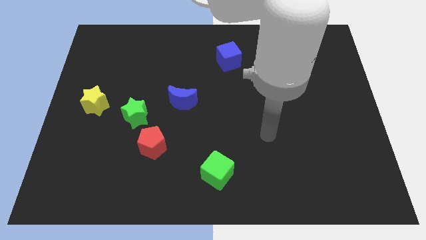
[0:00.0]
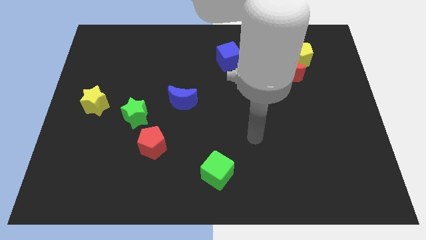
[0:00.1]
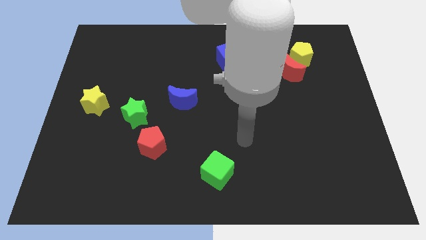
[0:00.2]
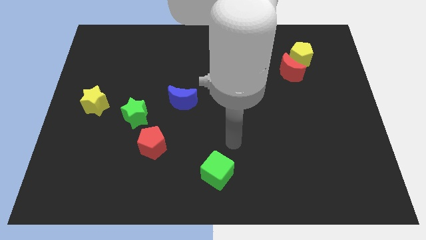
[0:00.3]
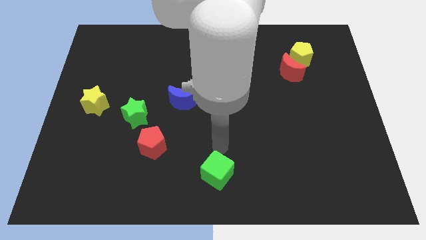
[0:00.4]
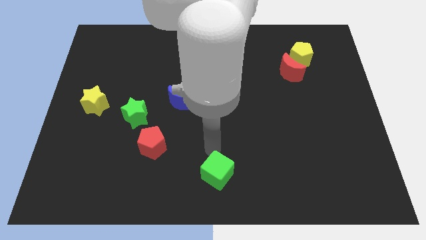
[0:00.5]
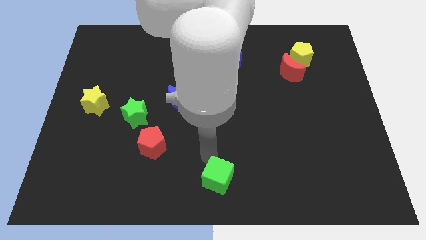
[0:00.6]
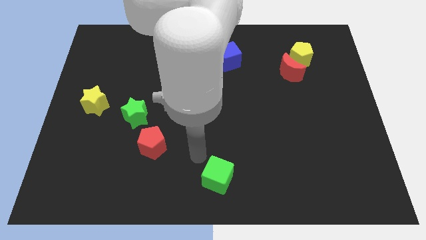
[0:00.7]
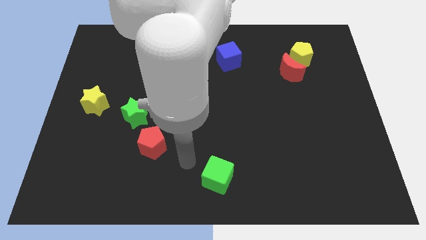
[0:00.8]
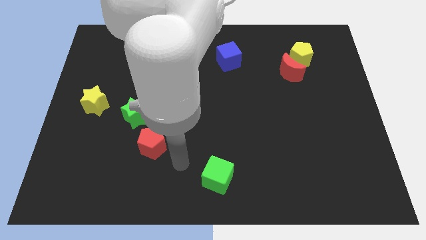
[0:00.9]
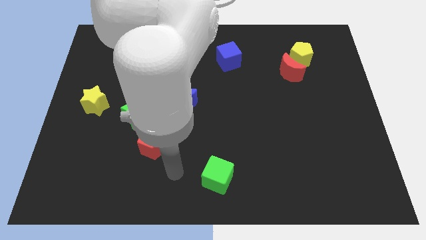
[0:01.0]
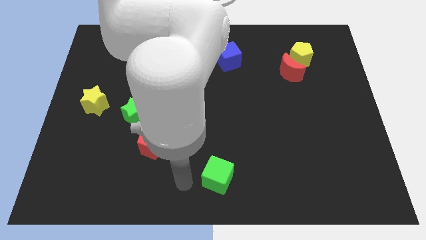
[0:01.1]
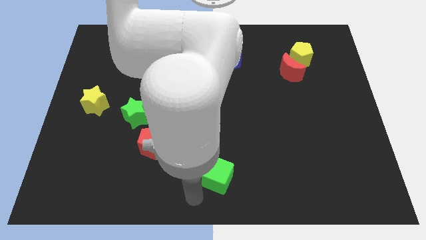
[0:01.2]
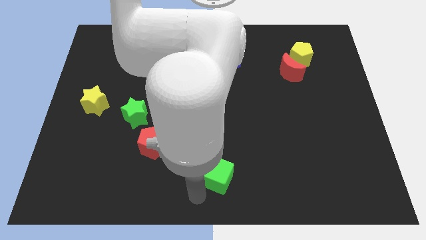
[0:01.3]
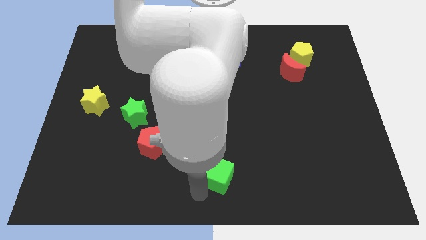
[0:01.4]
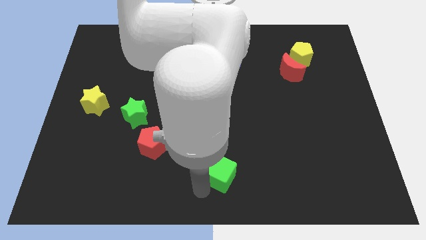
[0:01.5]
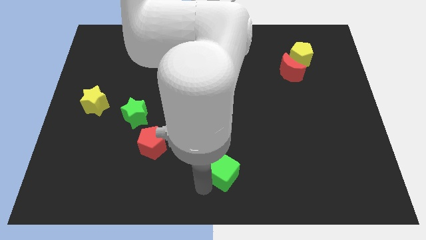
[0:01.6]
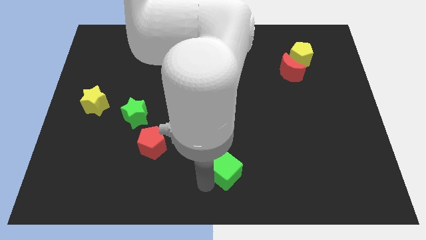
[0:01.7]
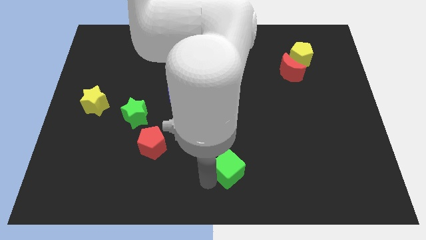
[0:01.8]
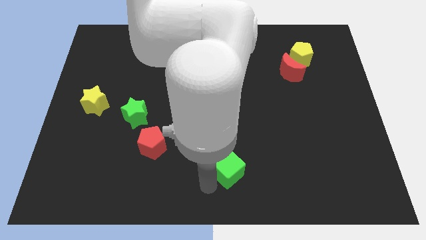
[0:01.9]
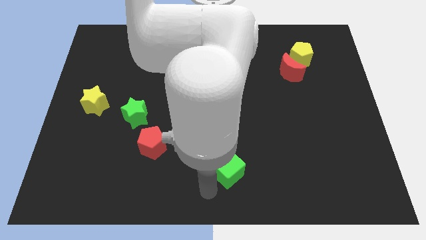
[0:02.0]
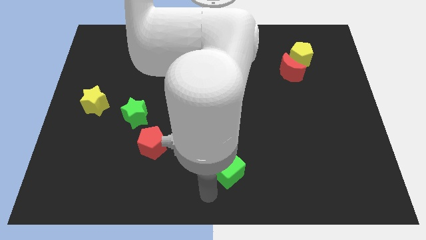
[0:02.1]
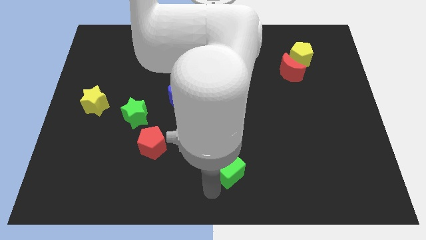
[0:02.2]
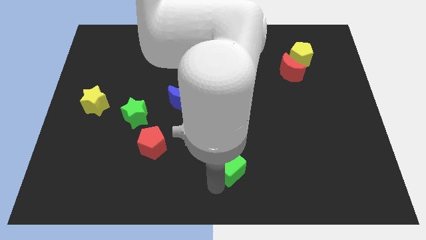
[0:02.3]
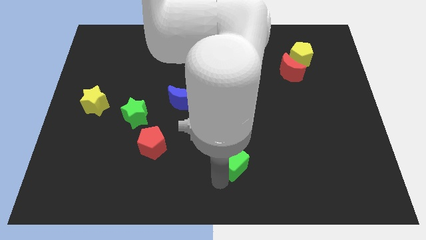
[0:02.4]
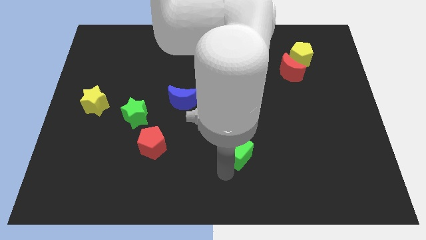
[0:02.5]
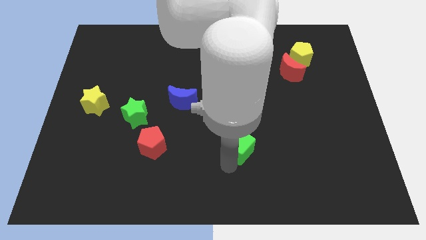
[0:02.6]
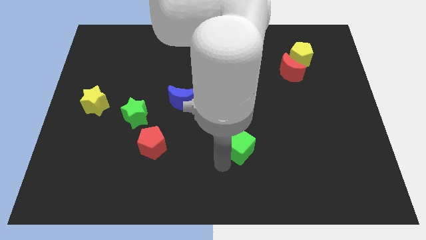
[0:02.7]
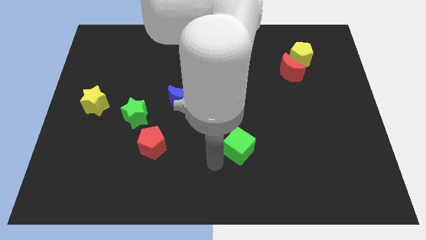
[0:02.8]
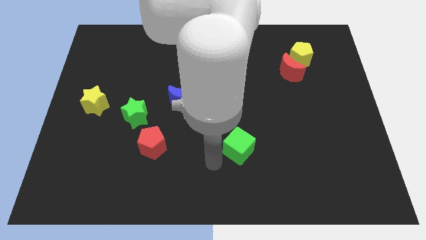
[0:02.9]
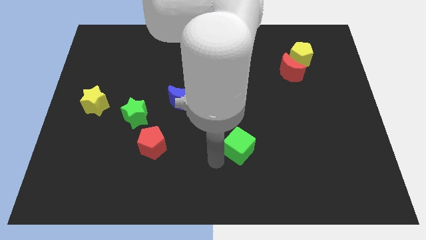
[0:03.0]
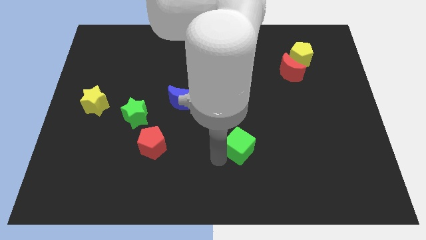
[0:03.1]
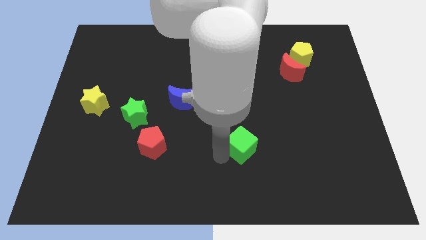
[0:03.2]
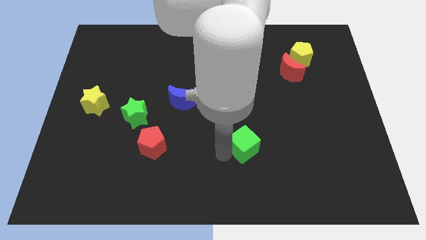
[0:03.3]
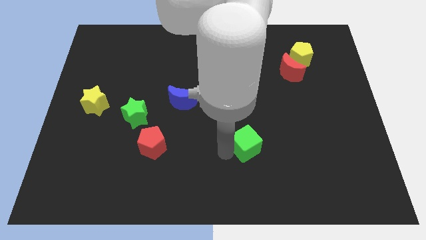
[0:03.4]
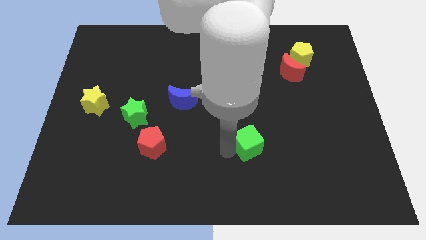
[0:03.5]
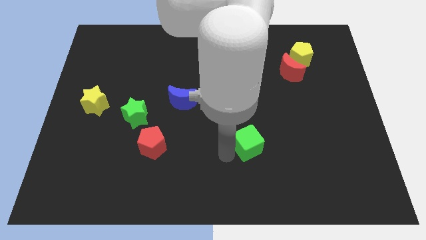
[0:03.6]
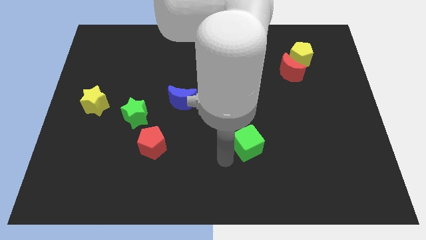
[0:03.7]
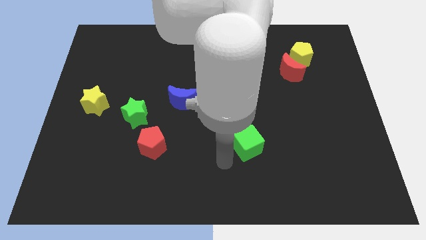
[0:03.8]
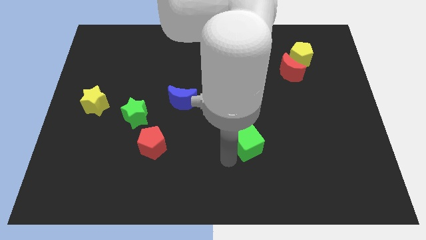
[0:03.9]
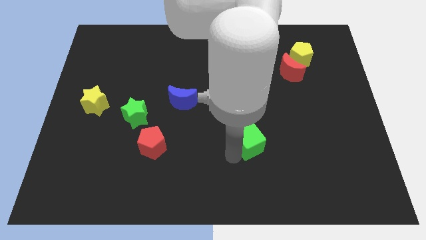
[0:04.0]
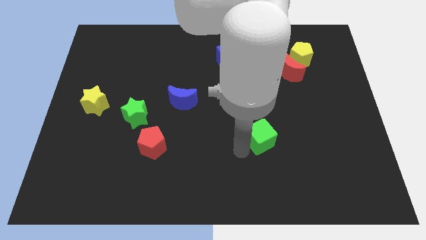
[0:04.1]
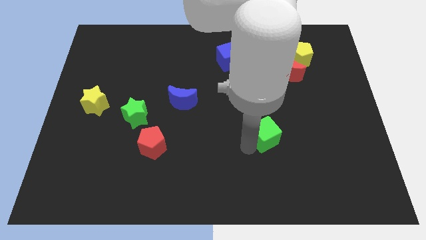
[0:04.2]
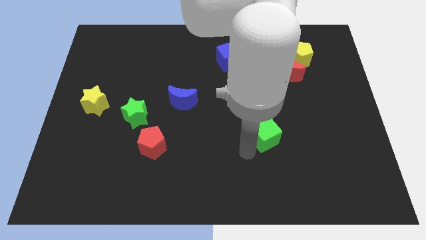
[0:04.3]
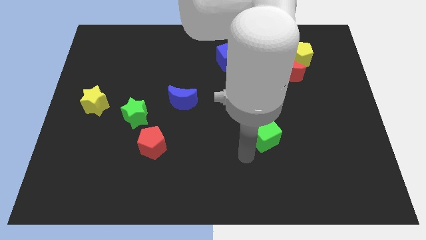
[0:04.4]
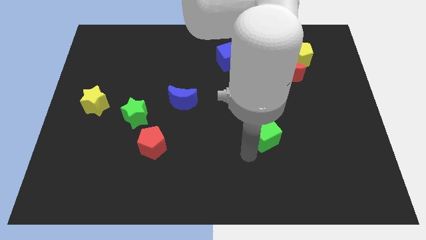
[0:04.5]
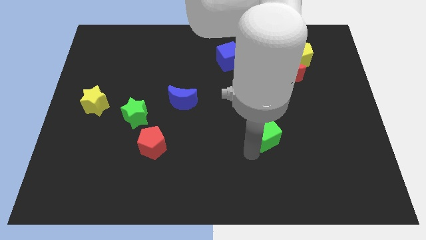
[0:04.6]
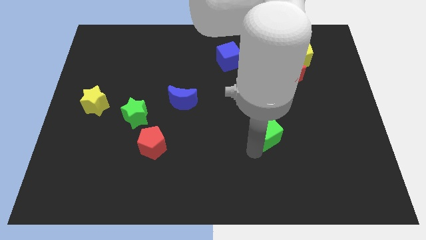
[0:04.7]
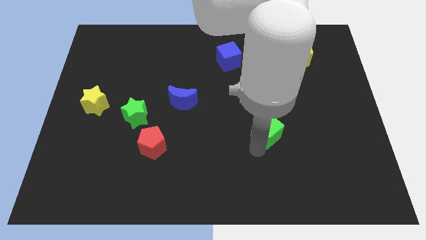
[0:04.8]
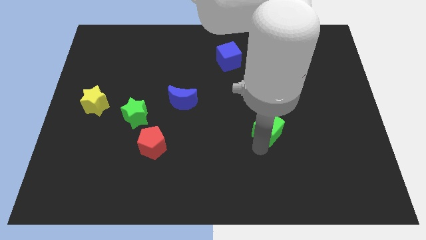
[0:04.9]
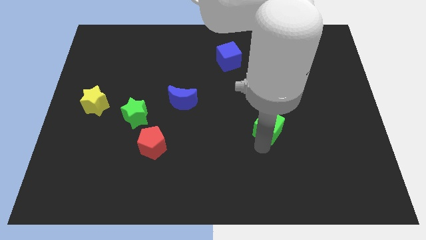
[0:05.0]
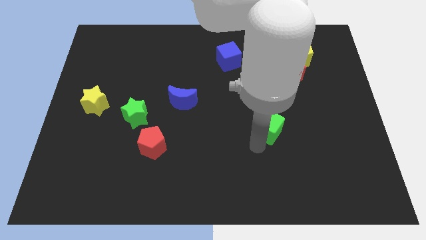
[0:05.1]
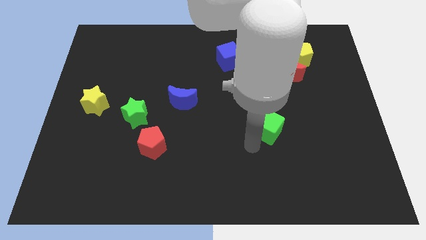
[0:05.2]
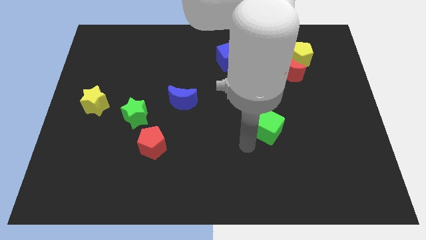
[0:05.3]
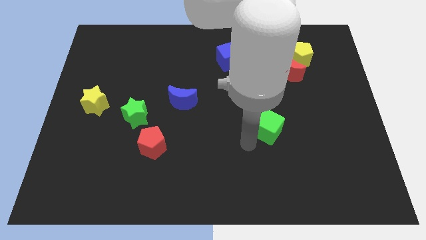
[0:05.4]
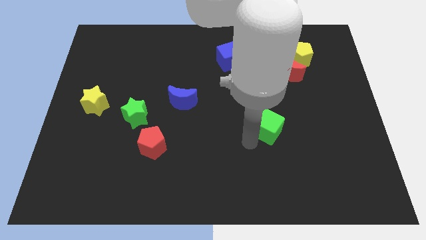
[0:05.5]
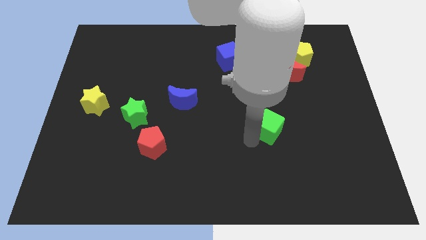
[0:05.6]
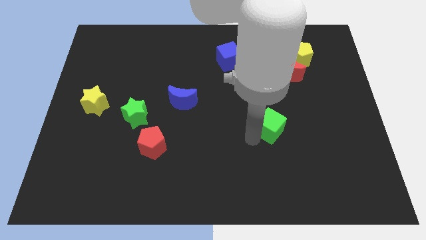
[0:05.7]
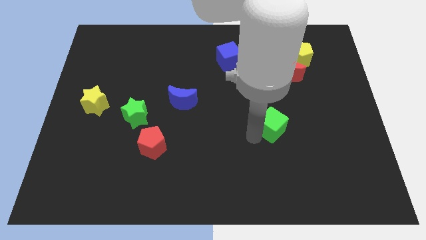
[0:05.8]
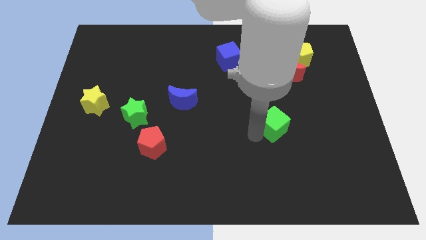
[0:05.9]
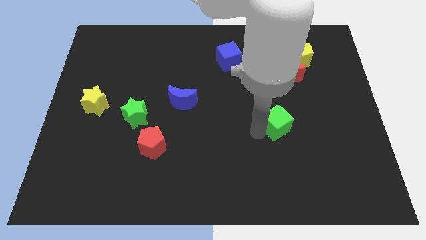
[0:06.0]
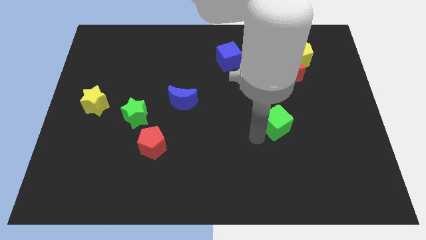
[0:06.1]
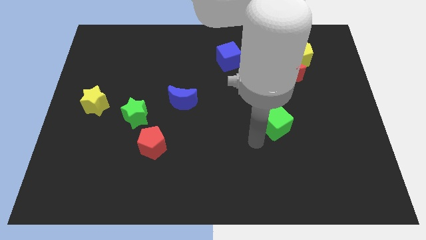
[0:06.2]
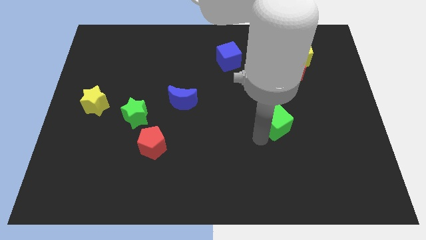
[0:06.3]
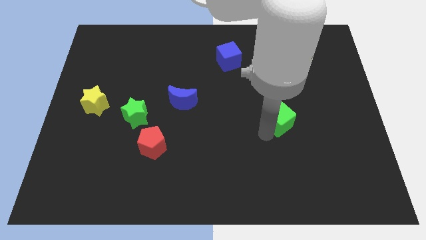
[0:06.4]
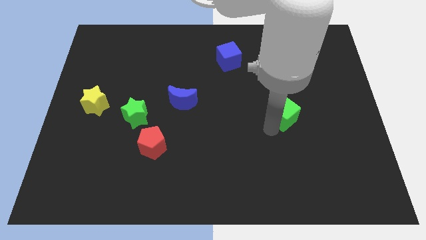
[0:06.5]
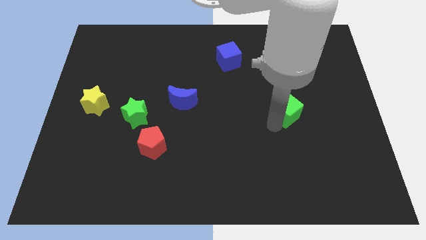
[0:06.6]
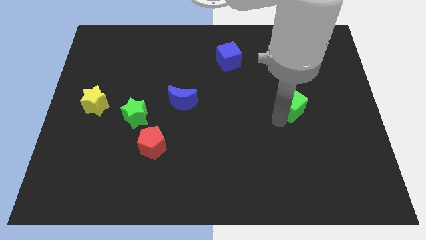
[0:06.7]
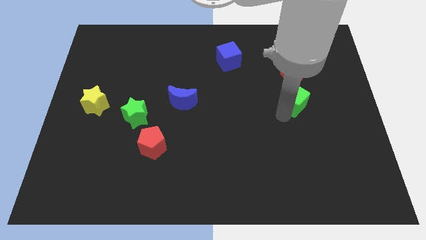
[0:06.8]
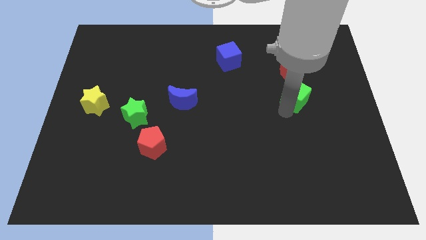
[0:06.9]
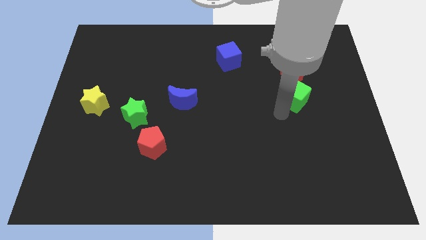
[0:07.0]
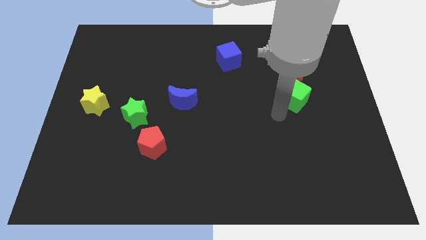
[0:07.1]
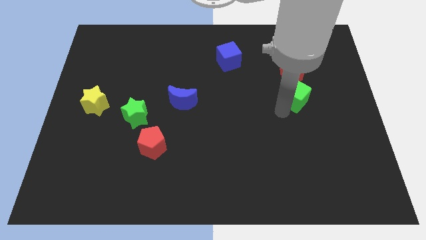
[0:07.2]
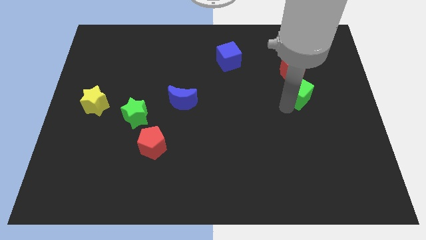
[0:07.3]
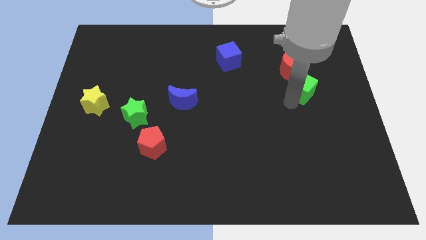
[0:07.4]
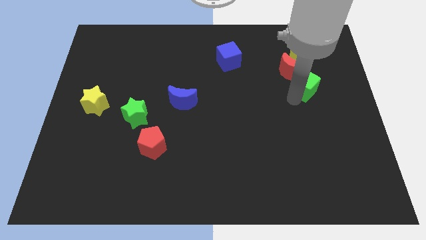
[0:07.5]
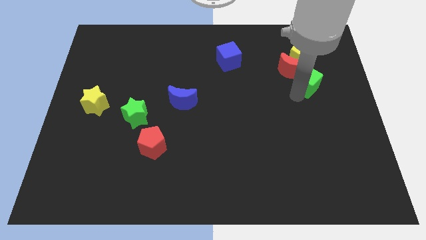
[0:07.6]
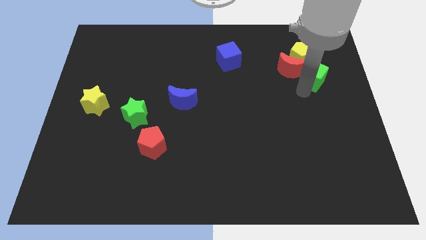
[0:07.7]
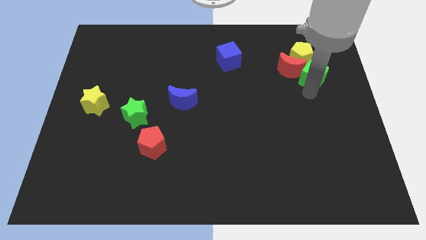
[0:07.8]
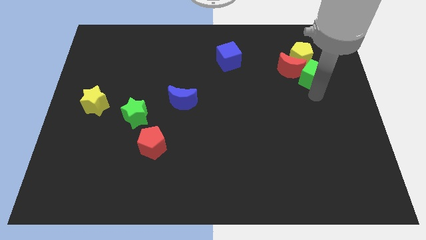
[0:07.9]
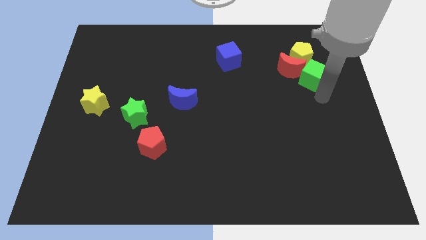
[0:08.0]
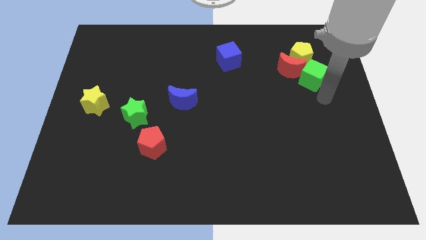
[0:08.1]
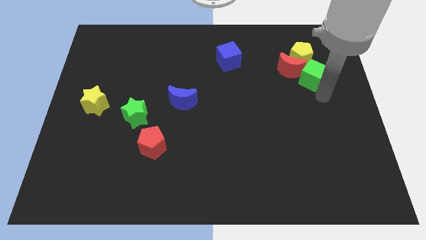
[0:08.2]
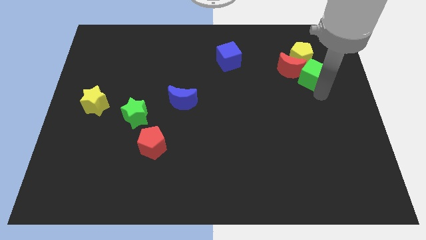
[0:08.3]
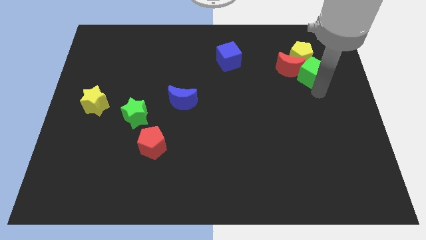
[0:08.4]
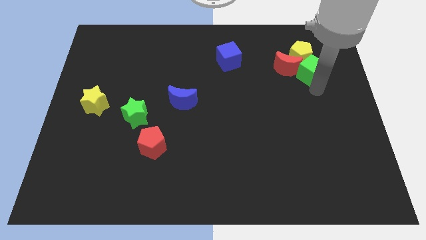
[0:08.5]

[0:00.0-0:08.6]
put the green cube close to the yellow pentagon
